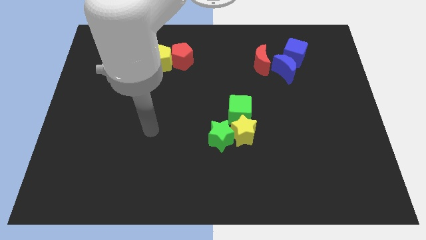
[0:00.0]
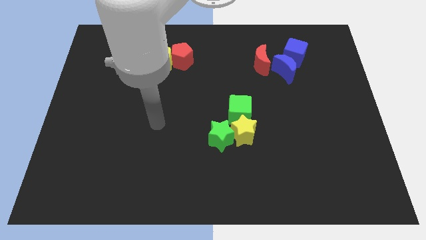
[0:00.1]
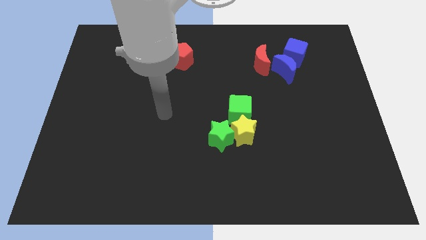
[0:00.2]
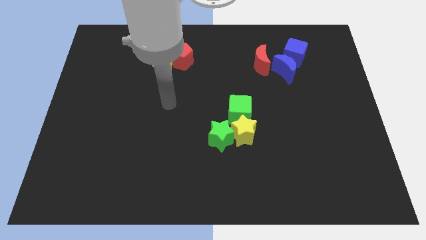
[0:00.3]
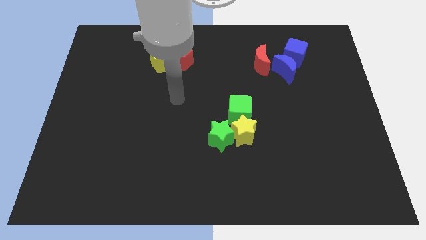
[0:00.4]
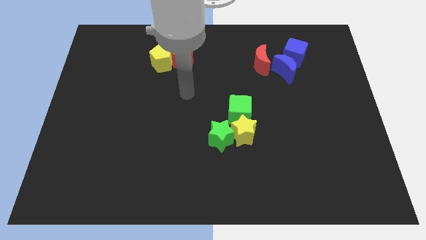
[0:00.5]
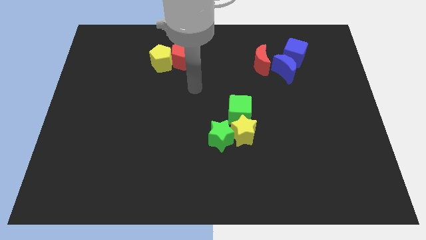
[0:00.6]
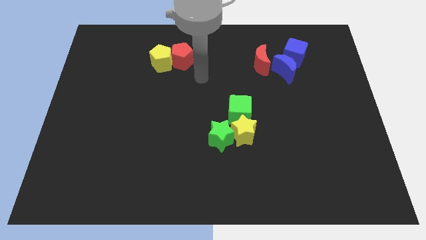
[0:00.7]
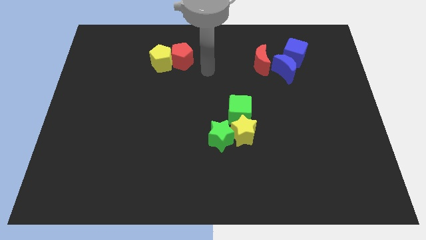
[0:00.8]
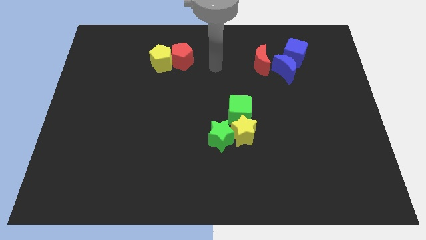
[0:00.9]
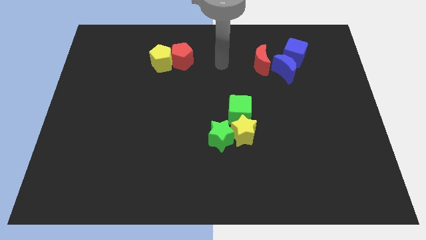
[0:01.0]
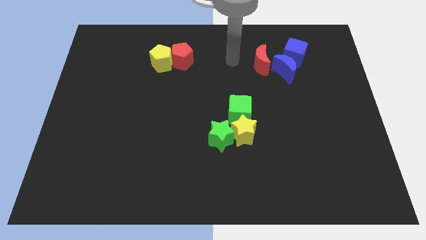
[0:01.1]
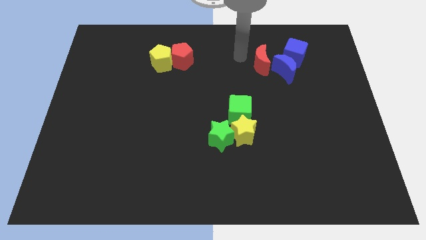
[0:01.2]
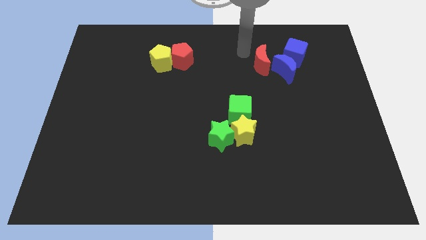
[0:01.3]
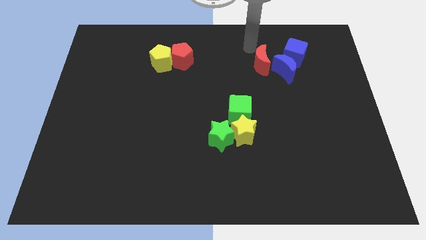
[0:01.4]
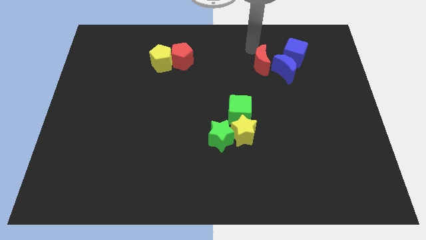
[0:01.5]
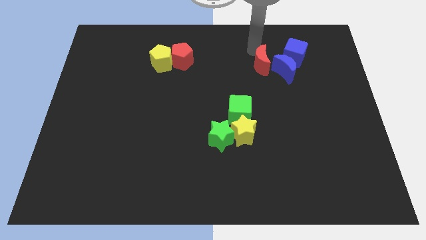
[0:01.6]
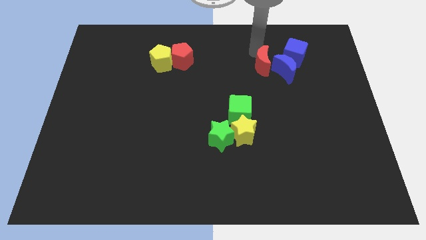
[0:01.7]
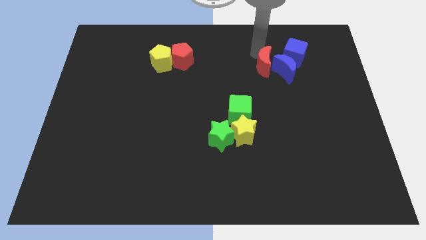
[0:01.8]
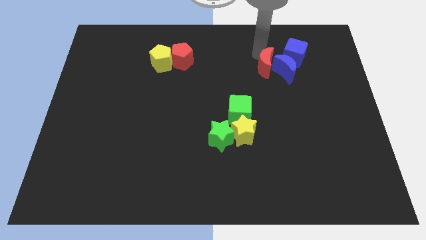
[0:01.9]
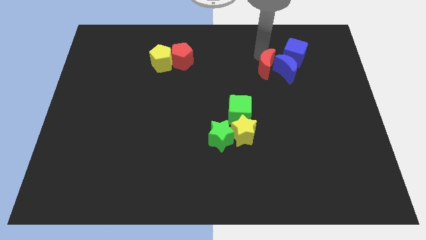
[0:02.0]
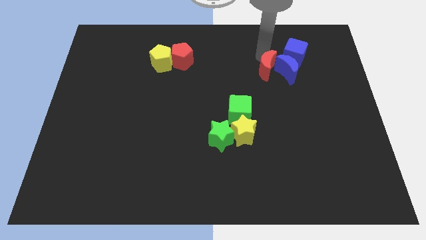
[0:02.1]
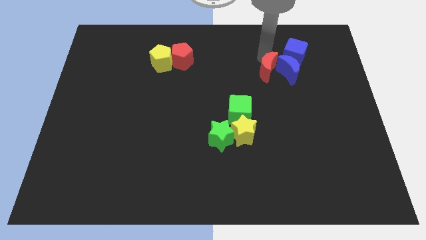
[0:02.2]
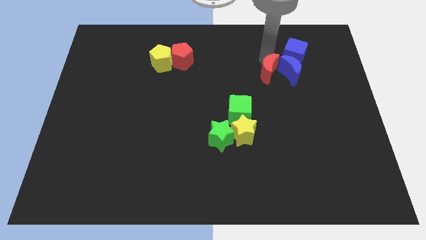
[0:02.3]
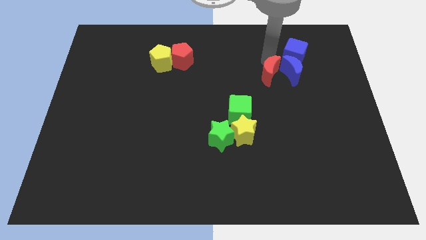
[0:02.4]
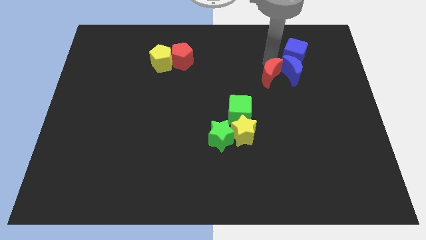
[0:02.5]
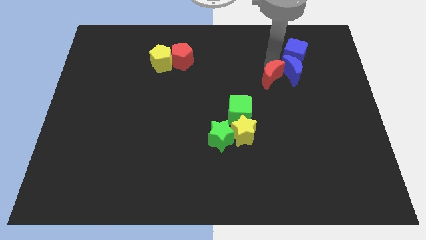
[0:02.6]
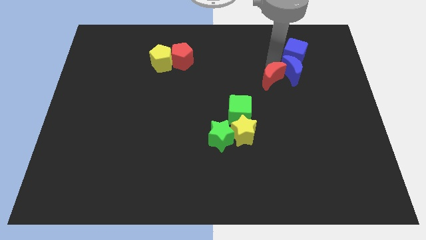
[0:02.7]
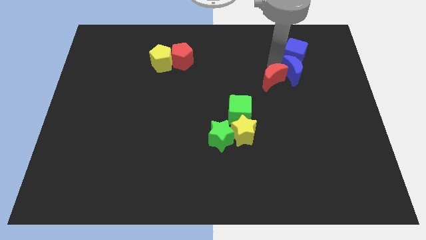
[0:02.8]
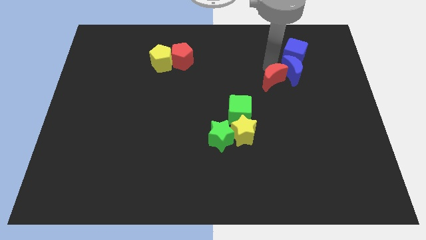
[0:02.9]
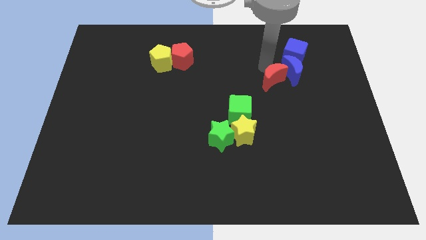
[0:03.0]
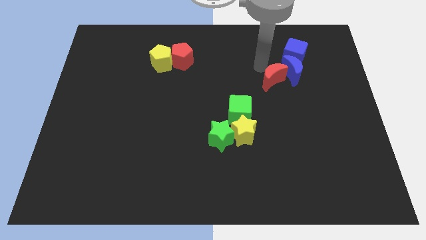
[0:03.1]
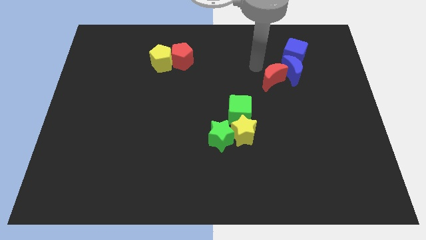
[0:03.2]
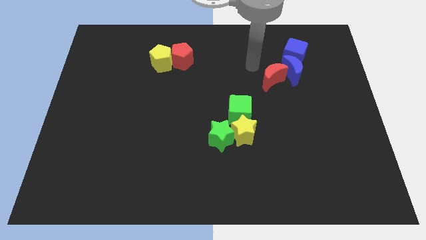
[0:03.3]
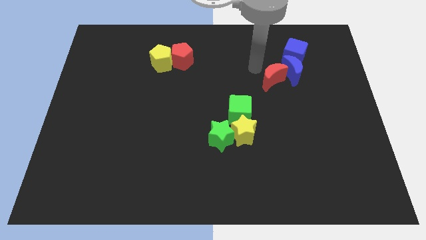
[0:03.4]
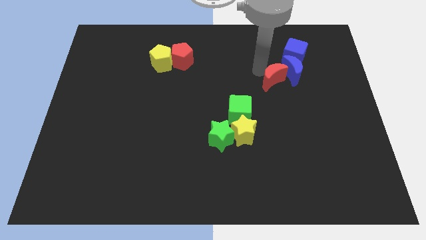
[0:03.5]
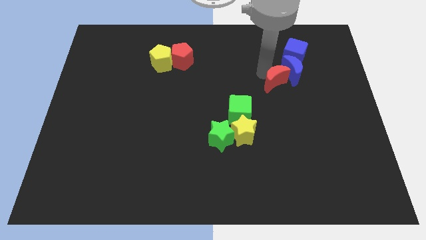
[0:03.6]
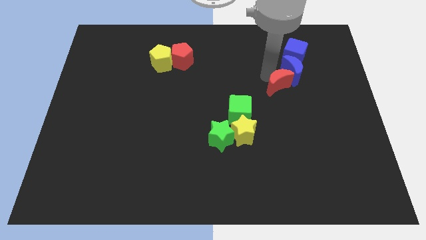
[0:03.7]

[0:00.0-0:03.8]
push the red moon a little down and to the right diagonally

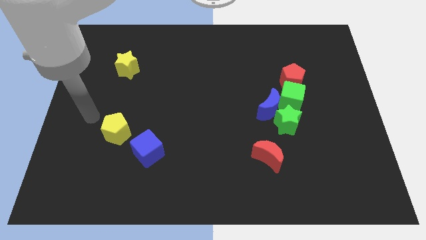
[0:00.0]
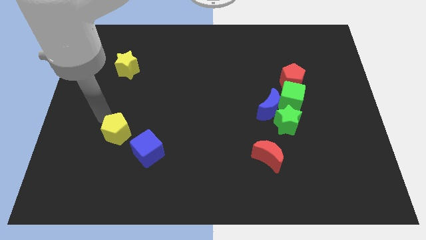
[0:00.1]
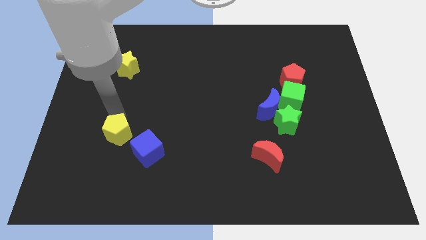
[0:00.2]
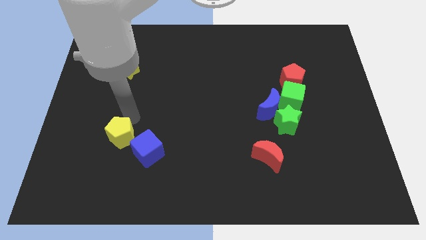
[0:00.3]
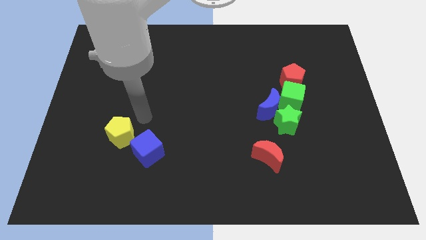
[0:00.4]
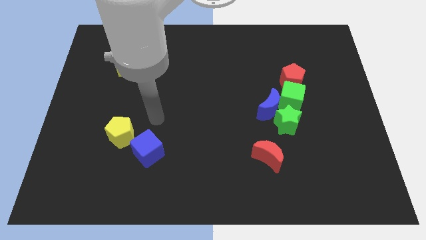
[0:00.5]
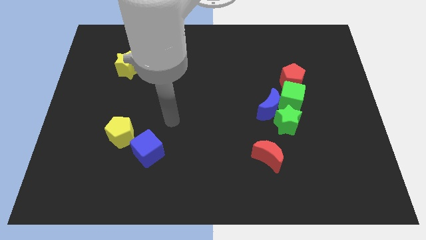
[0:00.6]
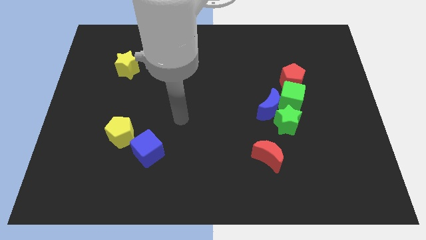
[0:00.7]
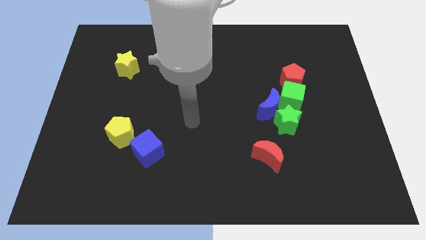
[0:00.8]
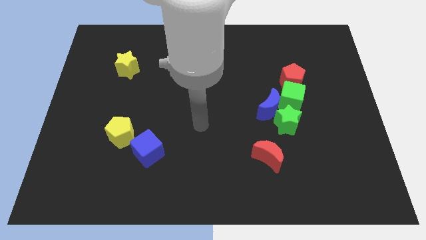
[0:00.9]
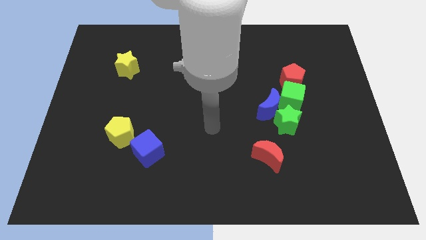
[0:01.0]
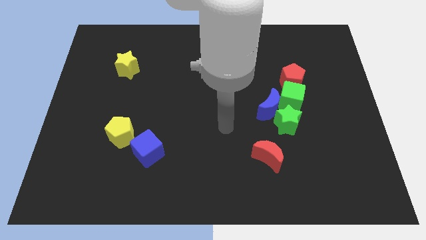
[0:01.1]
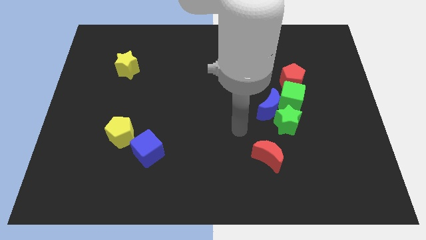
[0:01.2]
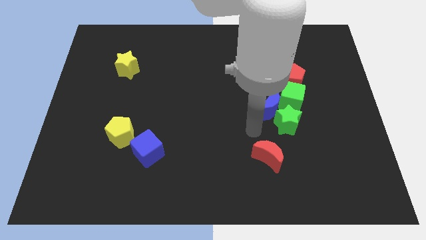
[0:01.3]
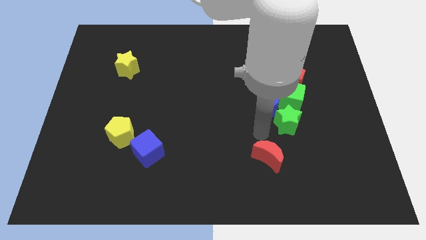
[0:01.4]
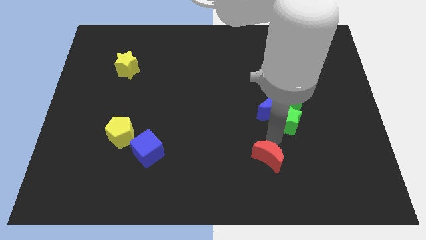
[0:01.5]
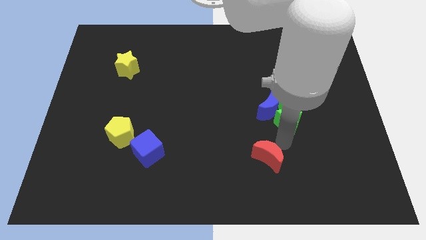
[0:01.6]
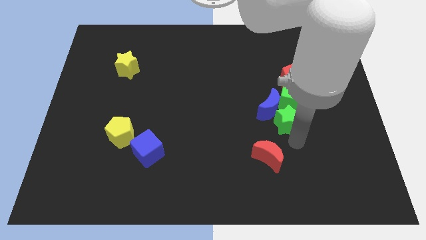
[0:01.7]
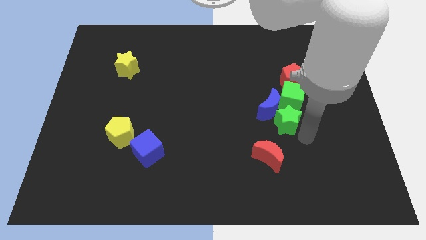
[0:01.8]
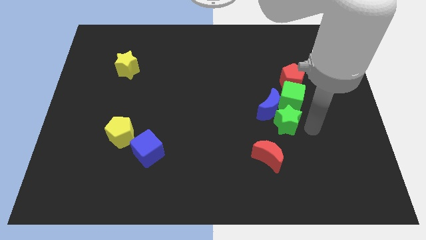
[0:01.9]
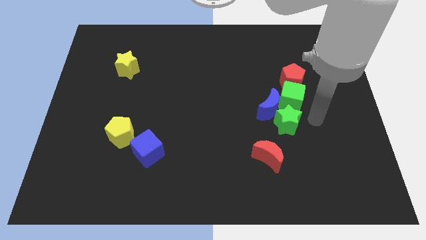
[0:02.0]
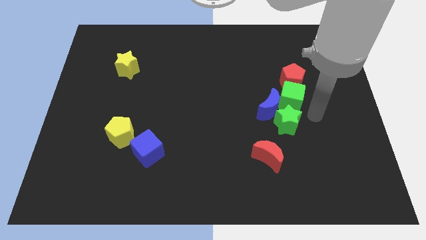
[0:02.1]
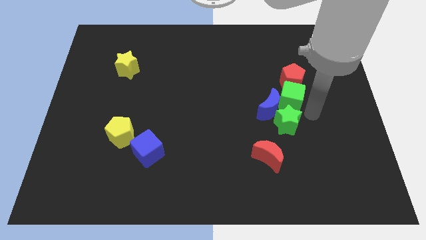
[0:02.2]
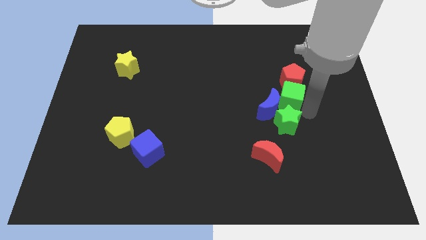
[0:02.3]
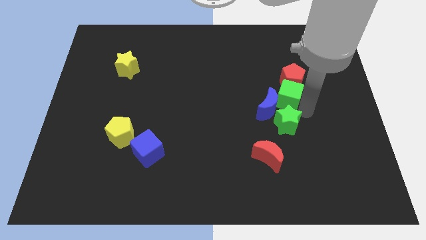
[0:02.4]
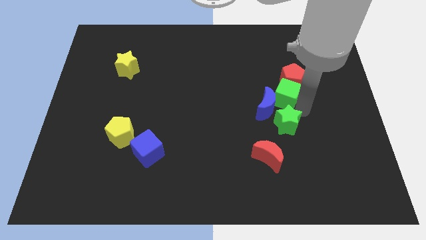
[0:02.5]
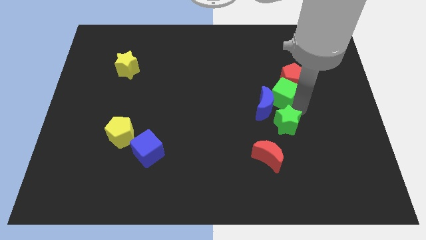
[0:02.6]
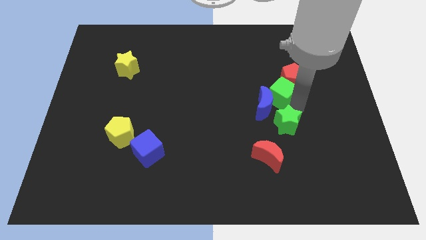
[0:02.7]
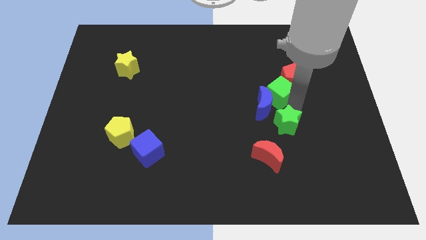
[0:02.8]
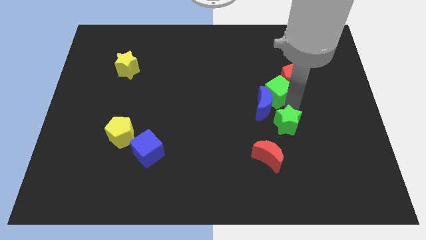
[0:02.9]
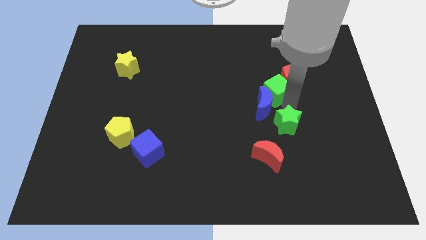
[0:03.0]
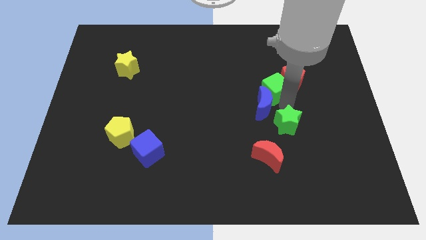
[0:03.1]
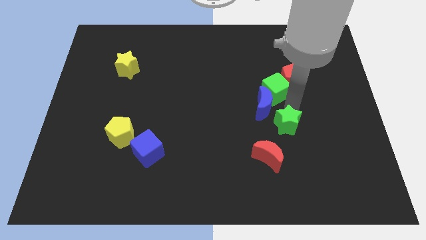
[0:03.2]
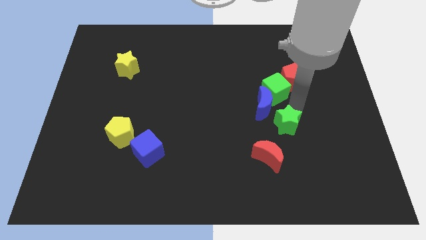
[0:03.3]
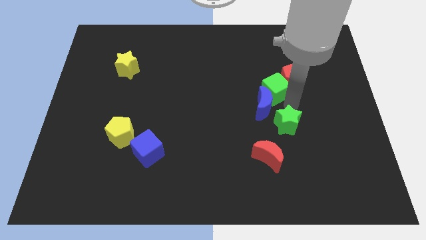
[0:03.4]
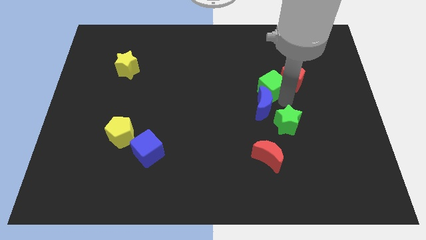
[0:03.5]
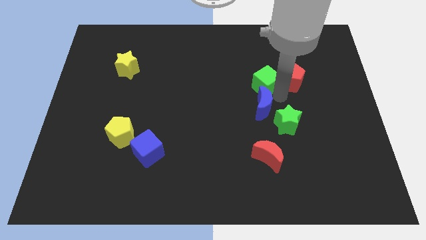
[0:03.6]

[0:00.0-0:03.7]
slightly move the green cube up and left diagonally

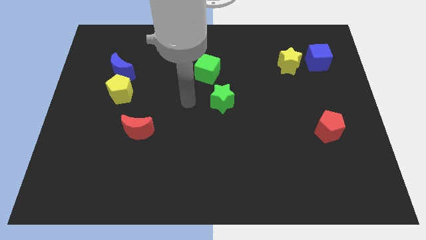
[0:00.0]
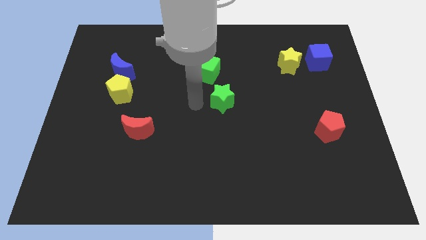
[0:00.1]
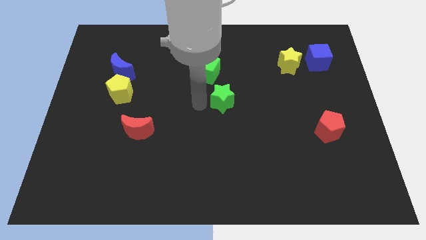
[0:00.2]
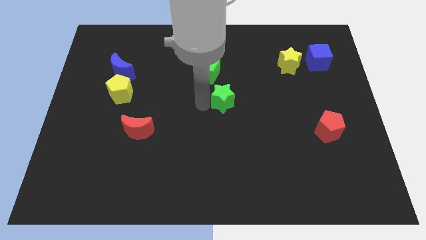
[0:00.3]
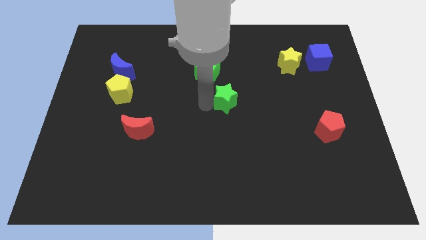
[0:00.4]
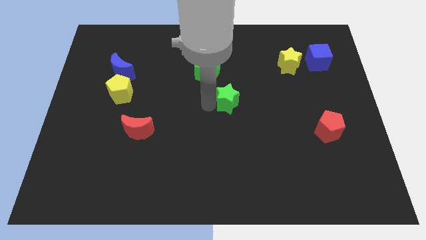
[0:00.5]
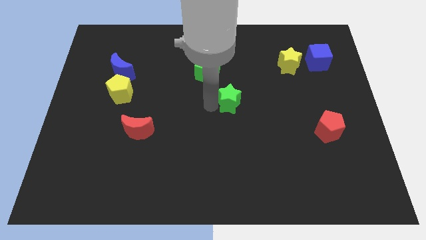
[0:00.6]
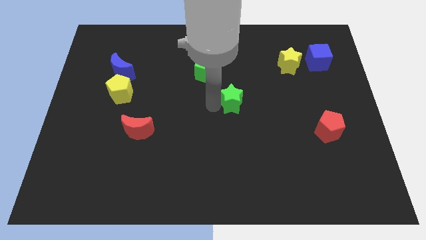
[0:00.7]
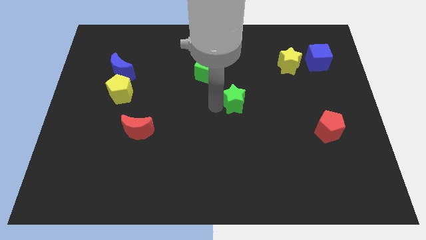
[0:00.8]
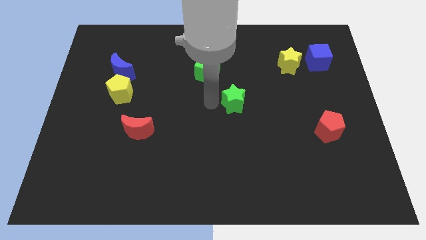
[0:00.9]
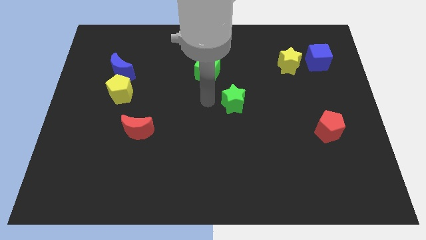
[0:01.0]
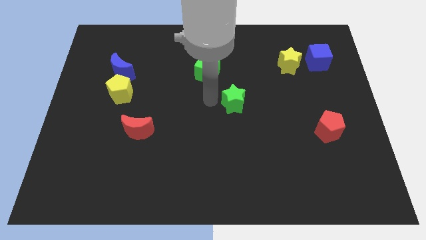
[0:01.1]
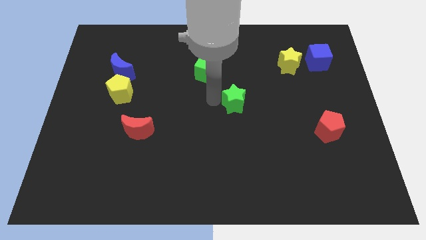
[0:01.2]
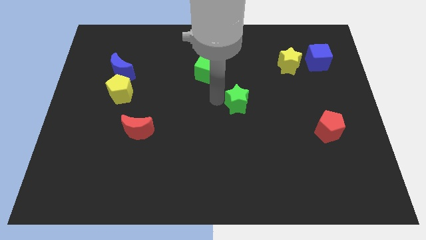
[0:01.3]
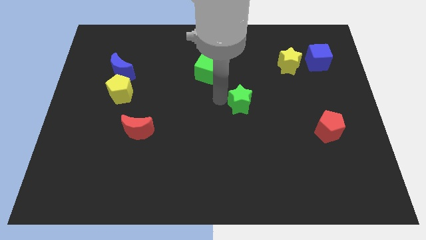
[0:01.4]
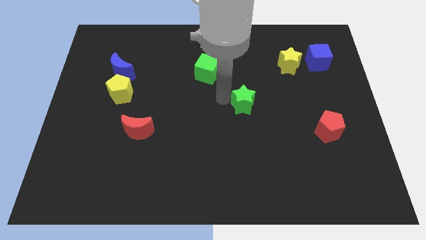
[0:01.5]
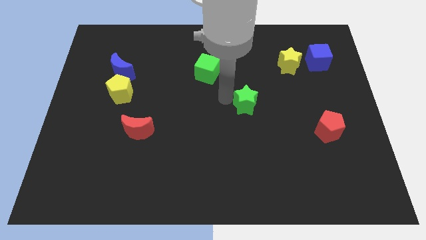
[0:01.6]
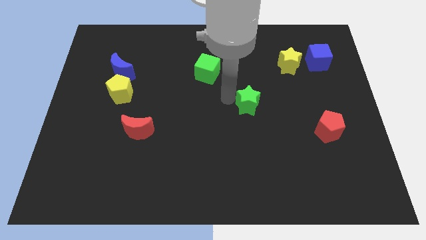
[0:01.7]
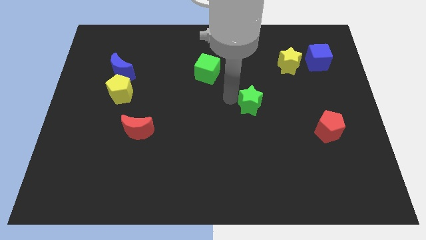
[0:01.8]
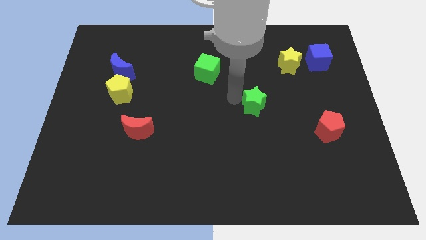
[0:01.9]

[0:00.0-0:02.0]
slightly push the green star right
